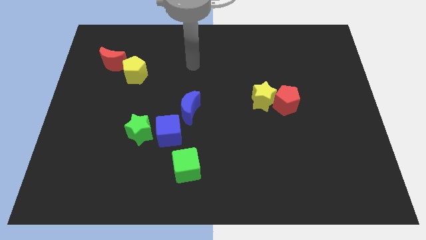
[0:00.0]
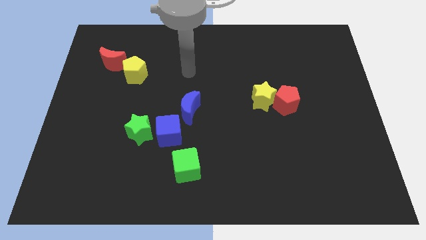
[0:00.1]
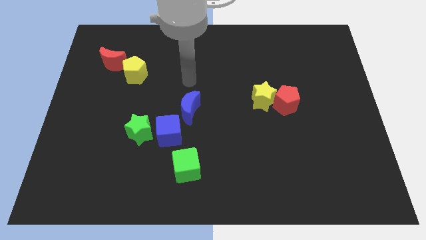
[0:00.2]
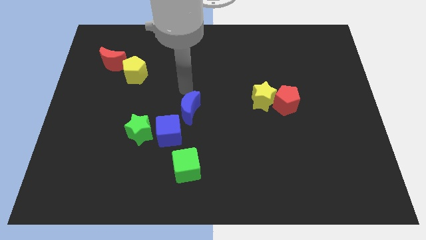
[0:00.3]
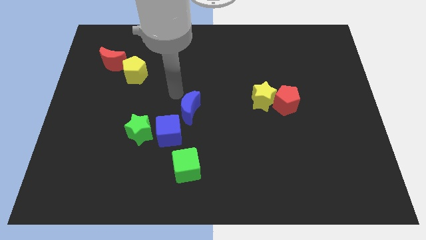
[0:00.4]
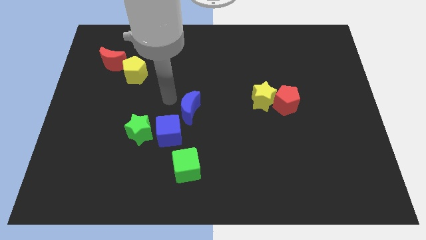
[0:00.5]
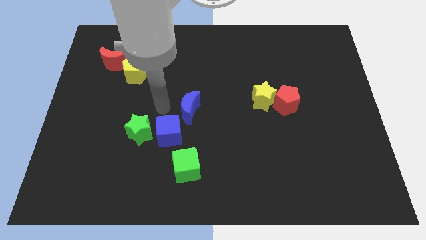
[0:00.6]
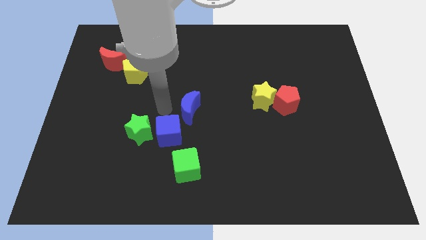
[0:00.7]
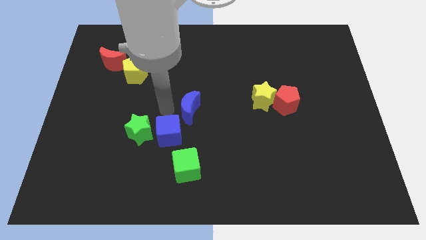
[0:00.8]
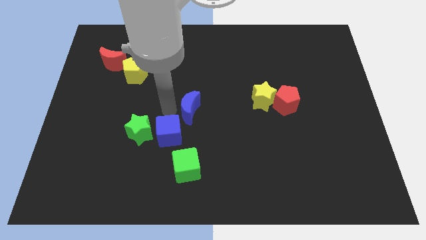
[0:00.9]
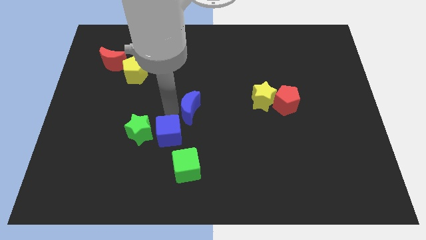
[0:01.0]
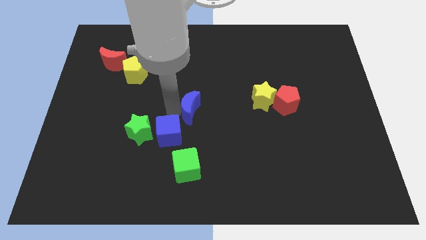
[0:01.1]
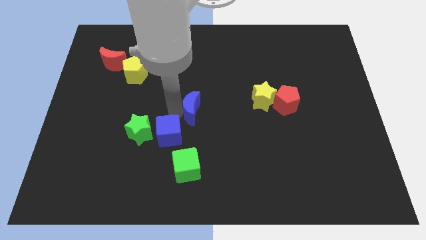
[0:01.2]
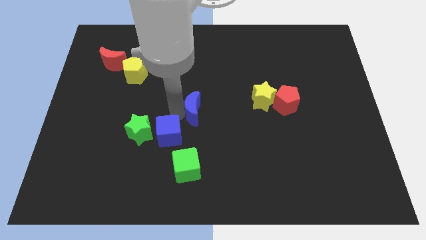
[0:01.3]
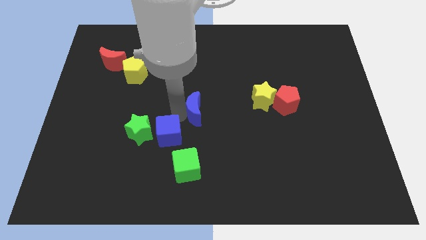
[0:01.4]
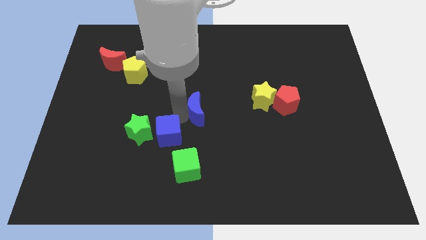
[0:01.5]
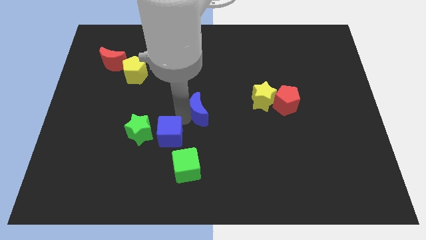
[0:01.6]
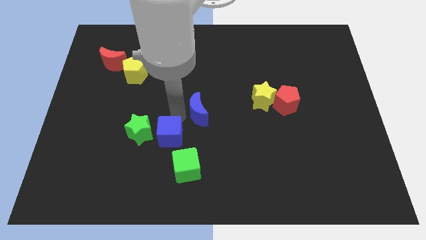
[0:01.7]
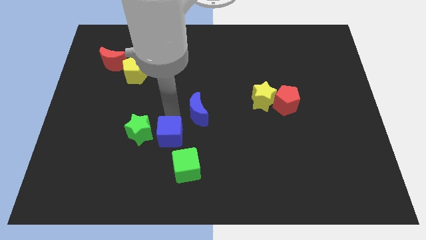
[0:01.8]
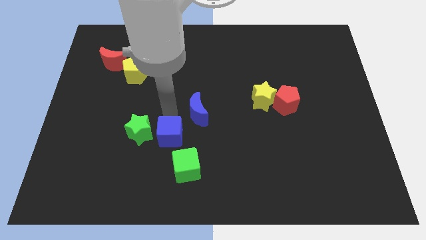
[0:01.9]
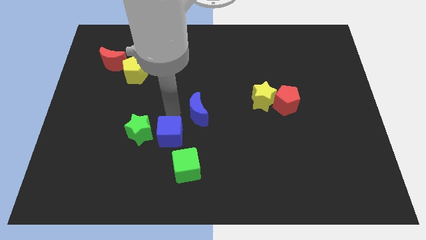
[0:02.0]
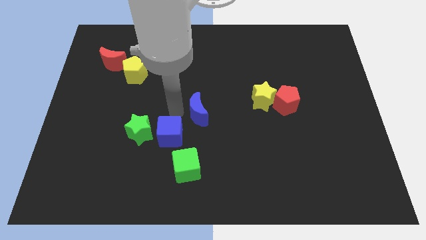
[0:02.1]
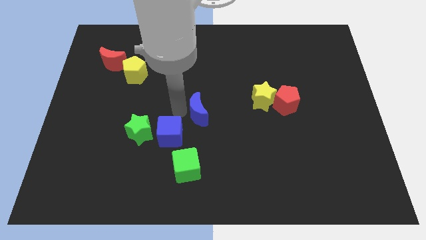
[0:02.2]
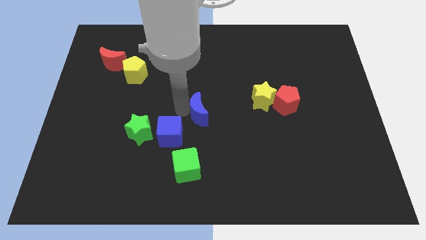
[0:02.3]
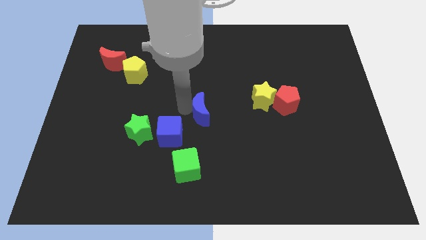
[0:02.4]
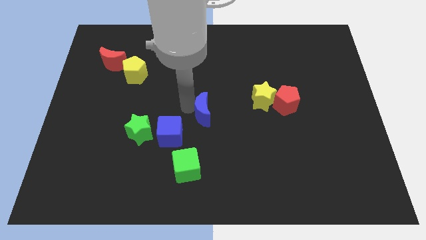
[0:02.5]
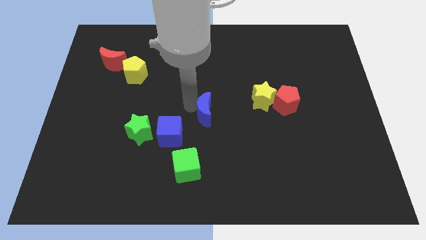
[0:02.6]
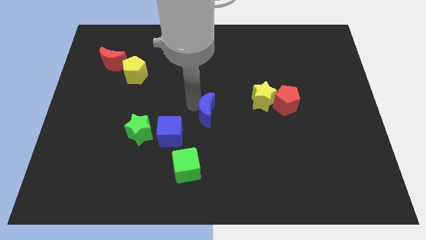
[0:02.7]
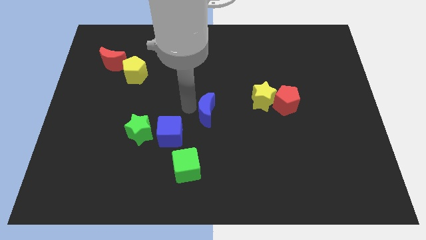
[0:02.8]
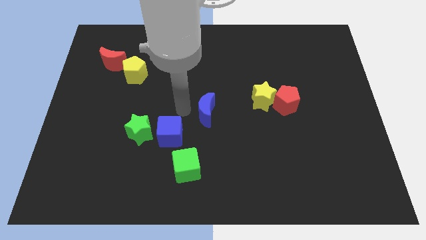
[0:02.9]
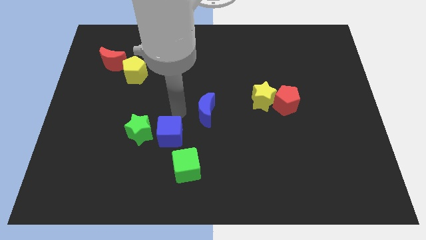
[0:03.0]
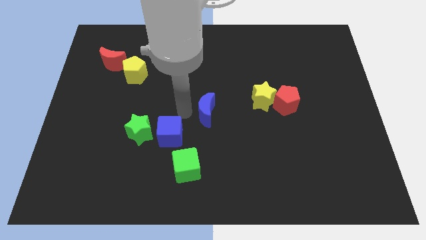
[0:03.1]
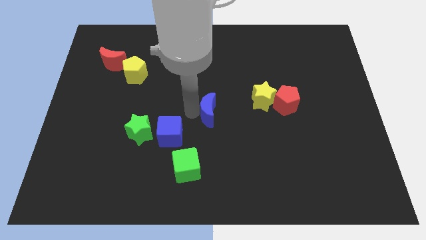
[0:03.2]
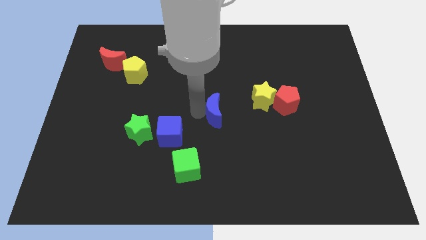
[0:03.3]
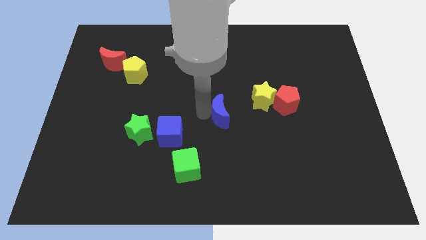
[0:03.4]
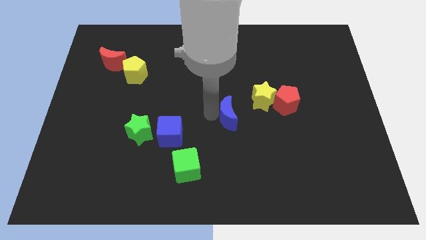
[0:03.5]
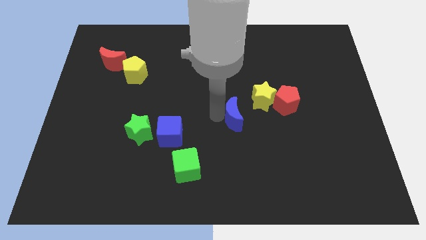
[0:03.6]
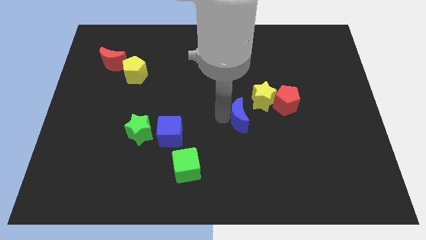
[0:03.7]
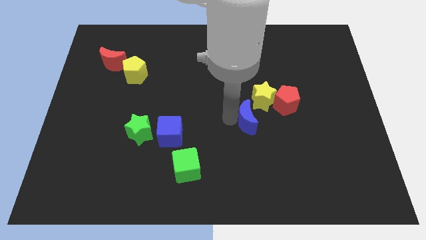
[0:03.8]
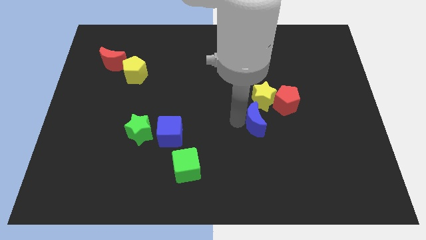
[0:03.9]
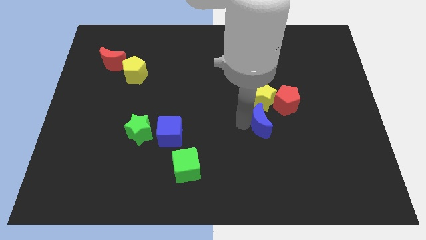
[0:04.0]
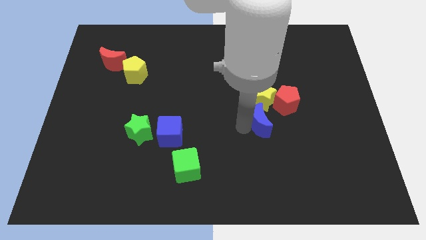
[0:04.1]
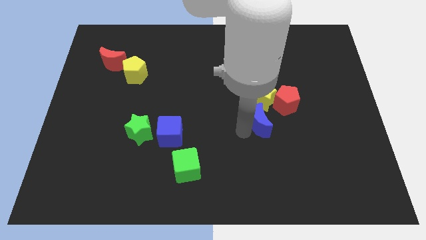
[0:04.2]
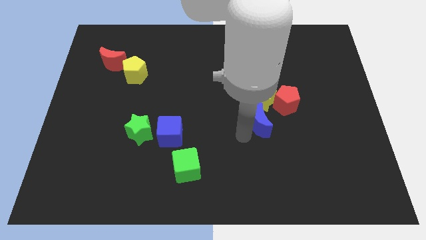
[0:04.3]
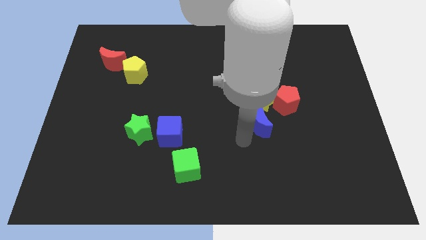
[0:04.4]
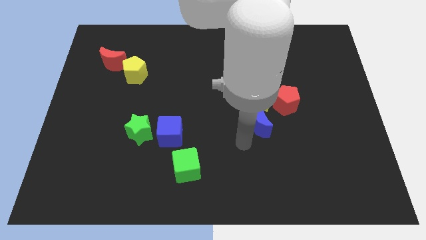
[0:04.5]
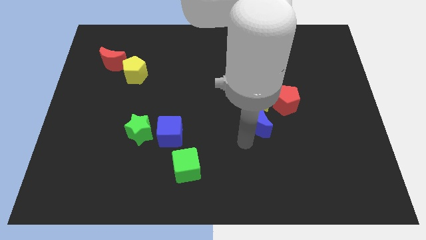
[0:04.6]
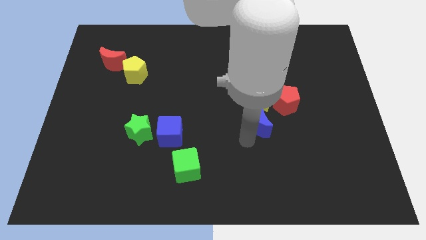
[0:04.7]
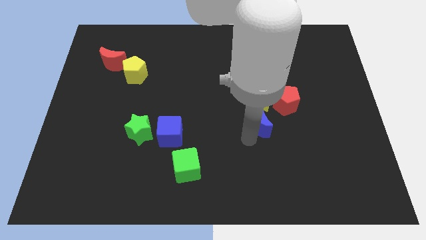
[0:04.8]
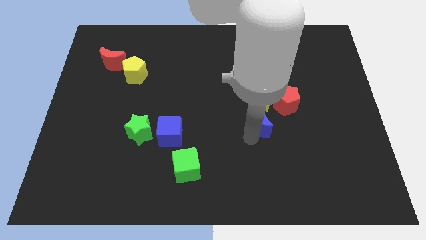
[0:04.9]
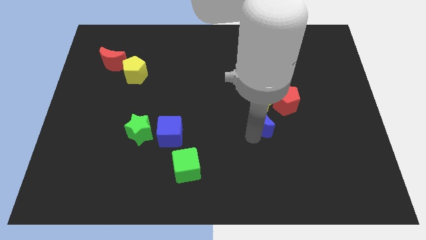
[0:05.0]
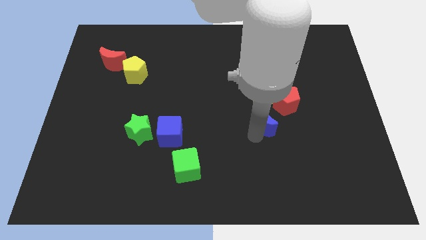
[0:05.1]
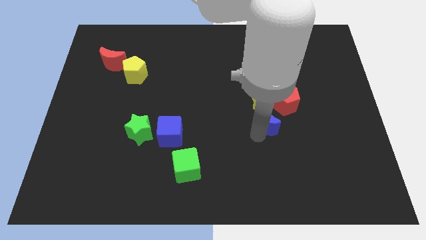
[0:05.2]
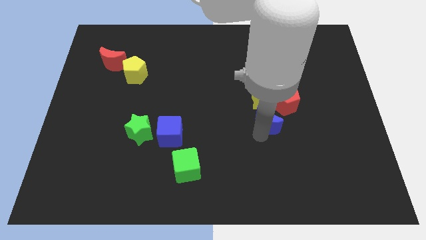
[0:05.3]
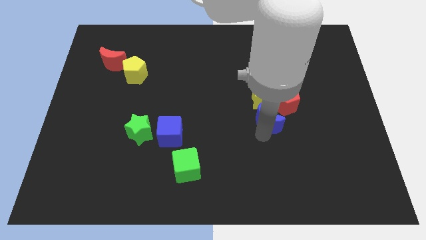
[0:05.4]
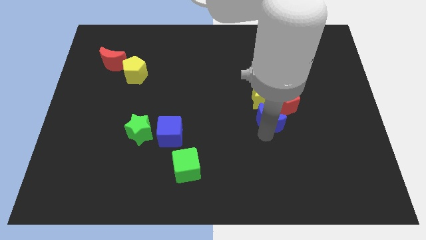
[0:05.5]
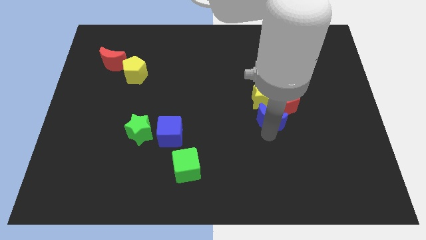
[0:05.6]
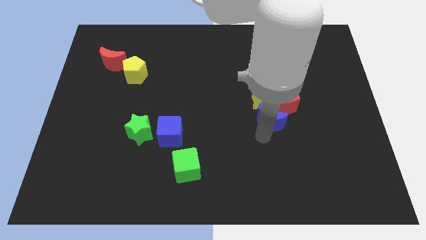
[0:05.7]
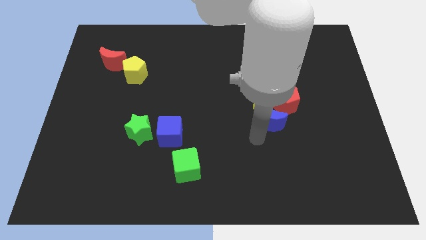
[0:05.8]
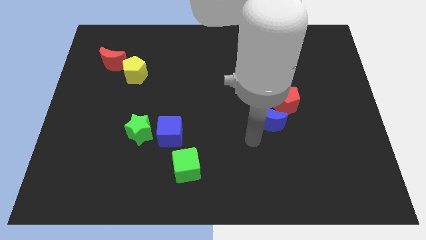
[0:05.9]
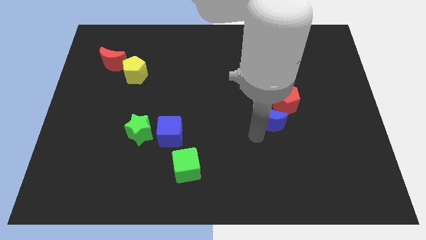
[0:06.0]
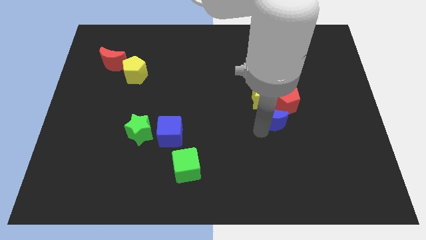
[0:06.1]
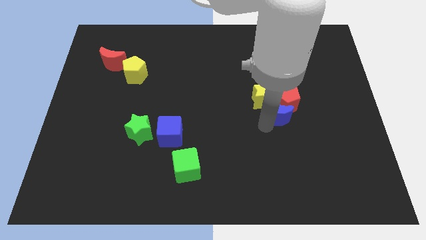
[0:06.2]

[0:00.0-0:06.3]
push the blue moon next to the red pentagon

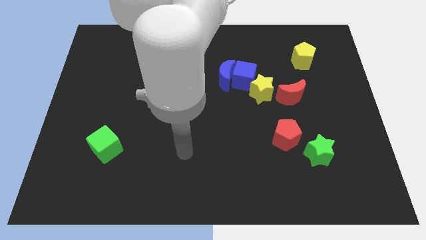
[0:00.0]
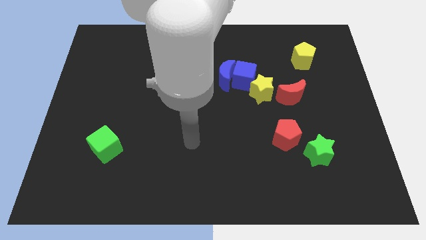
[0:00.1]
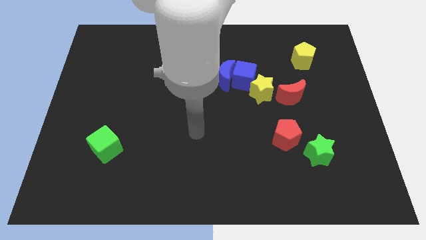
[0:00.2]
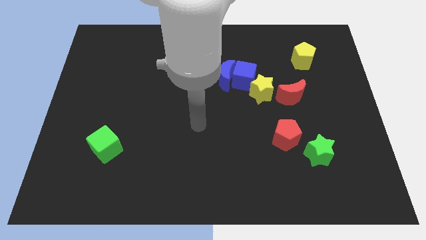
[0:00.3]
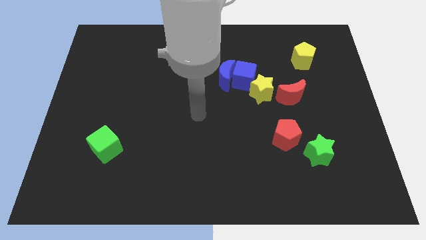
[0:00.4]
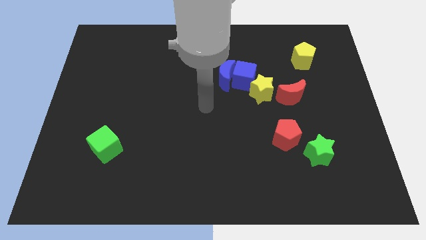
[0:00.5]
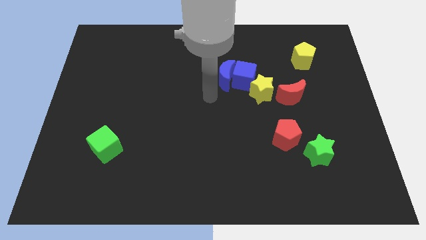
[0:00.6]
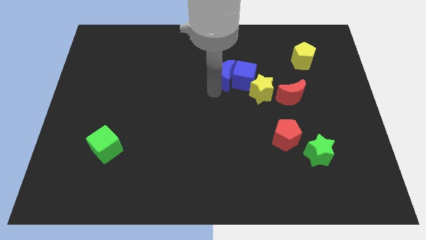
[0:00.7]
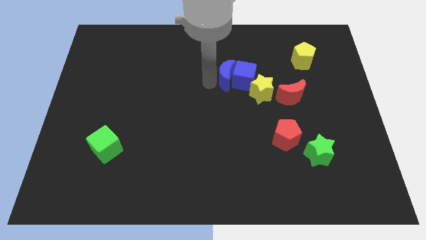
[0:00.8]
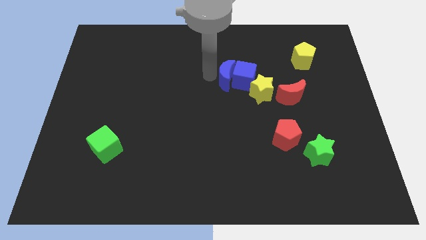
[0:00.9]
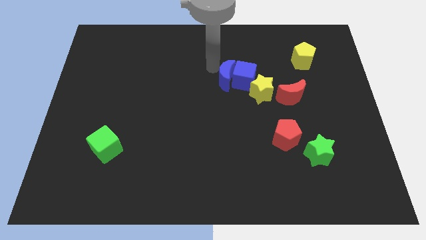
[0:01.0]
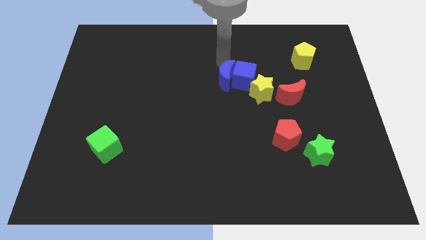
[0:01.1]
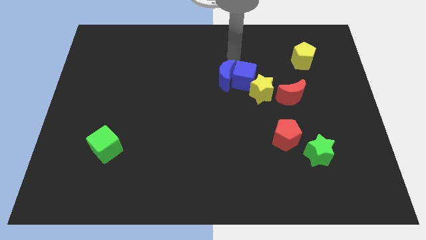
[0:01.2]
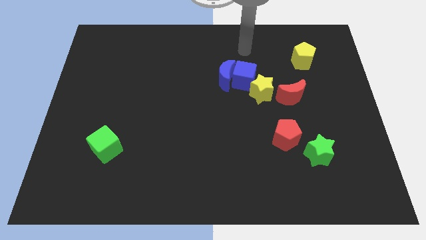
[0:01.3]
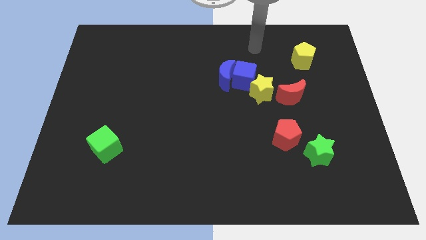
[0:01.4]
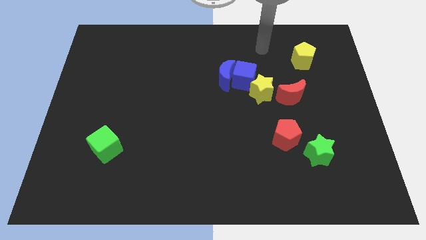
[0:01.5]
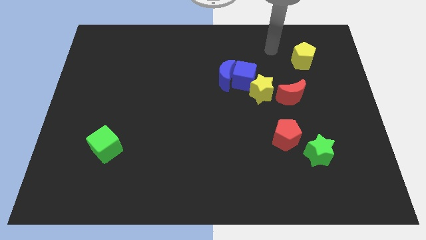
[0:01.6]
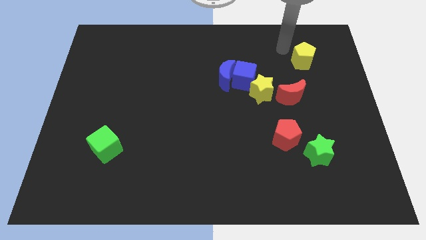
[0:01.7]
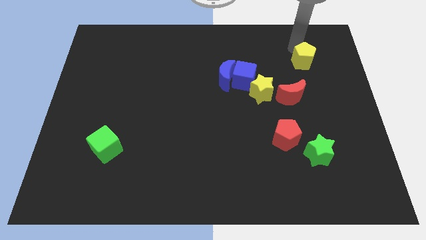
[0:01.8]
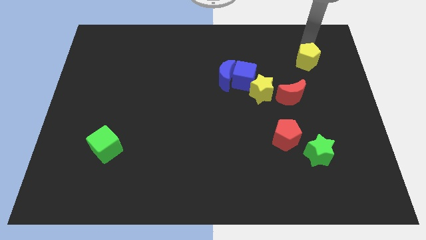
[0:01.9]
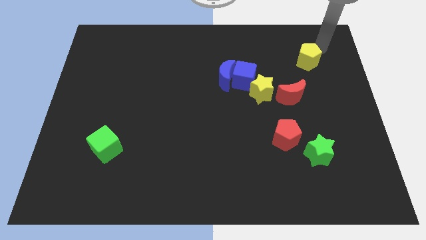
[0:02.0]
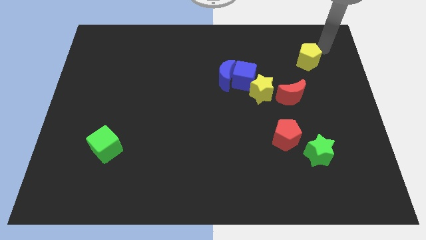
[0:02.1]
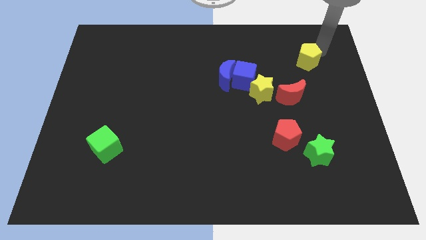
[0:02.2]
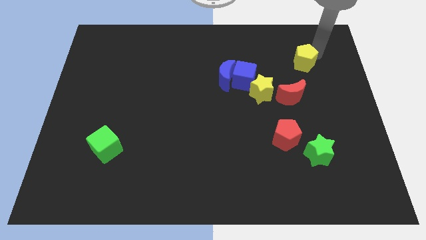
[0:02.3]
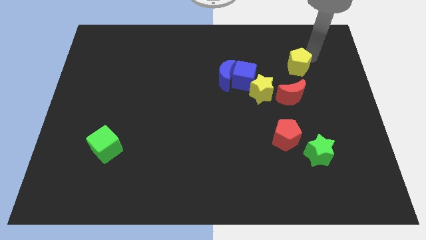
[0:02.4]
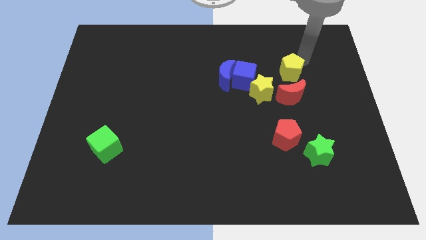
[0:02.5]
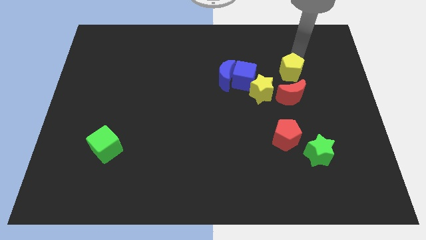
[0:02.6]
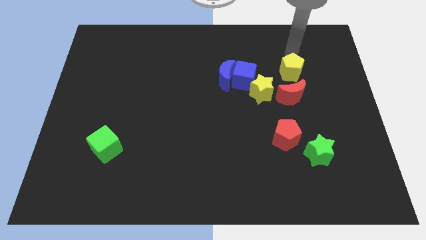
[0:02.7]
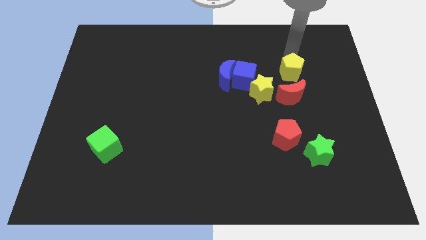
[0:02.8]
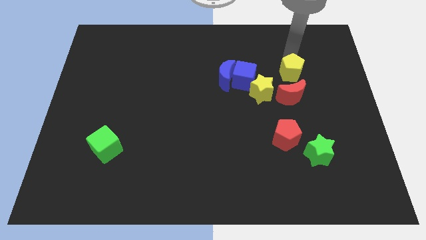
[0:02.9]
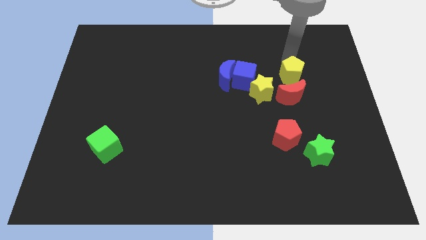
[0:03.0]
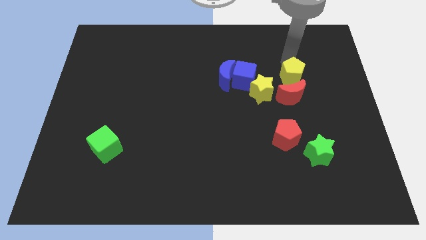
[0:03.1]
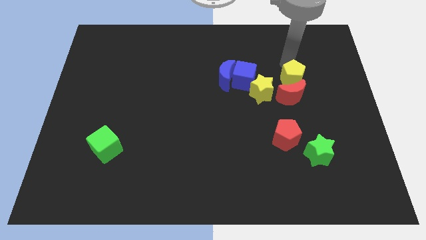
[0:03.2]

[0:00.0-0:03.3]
push the yellow pentagon next to the red moon
